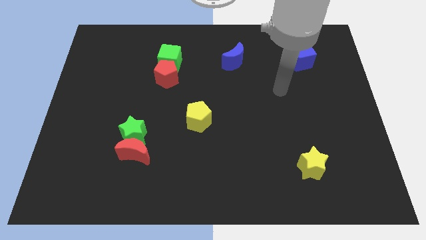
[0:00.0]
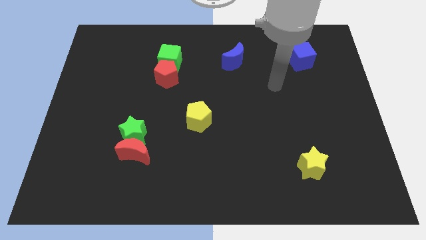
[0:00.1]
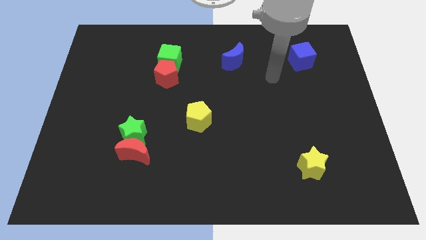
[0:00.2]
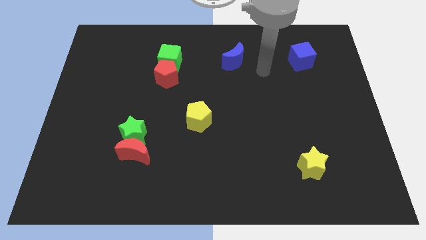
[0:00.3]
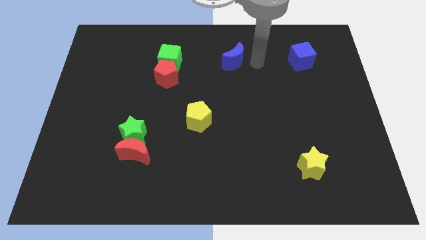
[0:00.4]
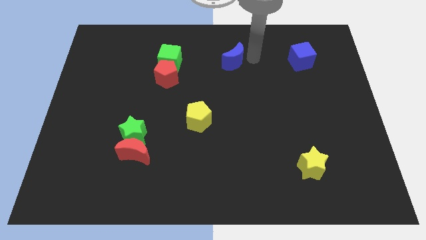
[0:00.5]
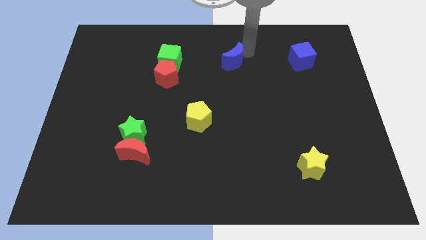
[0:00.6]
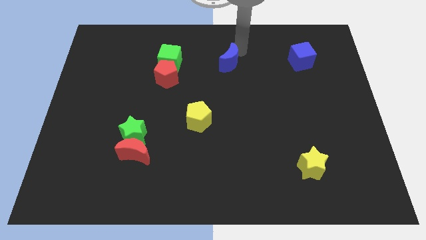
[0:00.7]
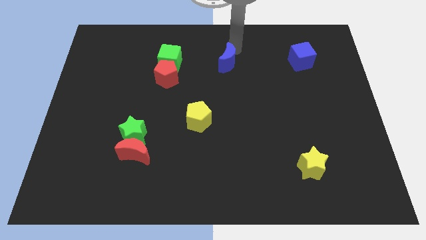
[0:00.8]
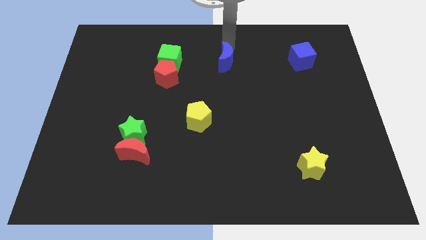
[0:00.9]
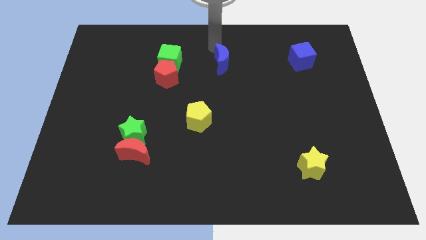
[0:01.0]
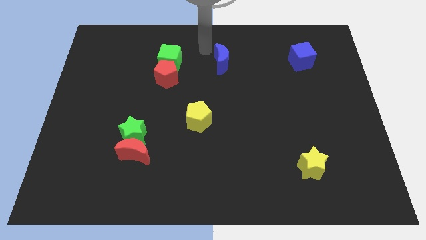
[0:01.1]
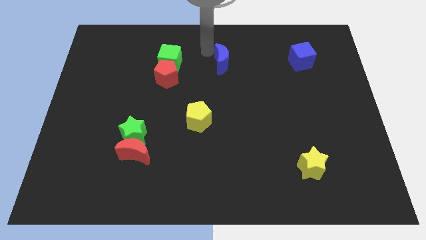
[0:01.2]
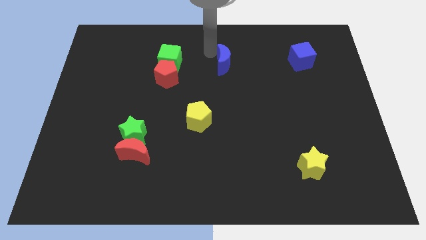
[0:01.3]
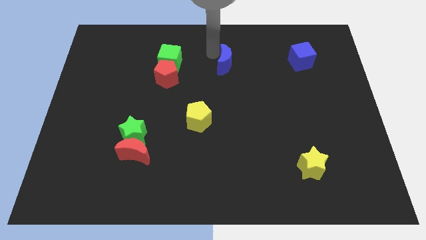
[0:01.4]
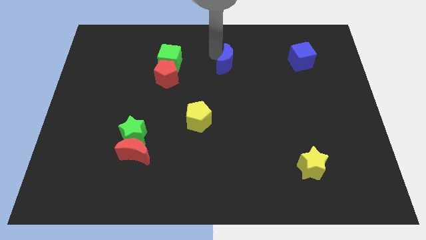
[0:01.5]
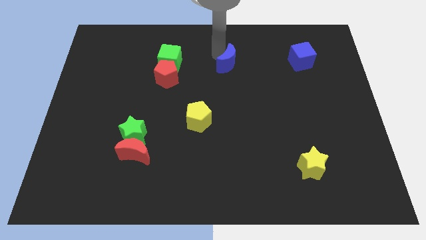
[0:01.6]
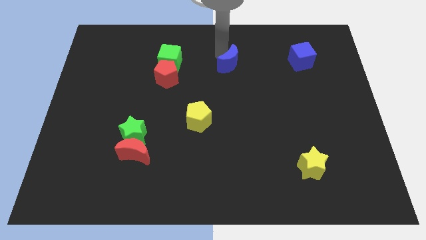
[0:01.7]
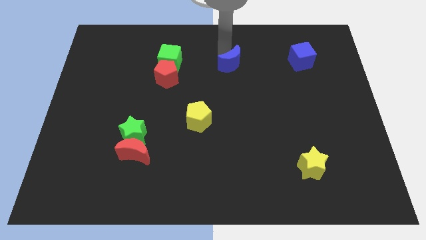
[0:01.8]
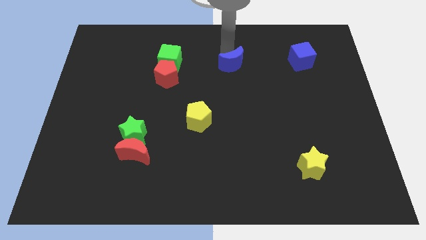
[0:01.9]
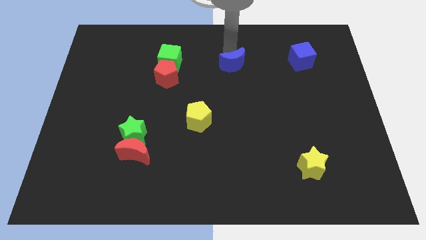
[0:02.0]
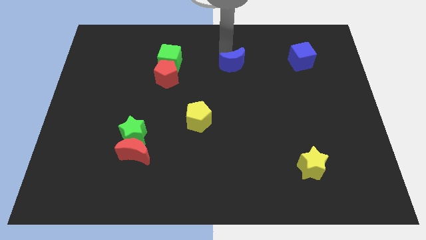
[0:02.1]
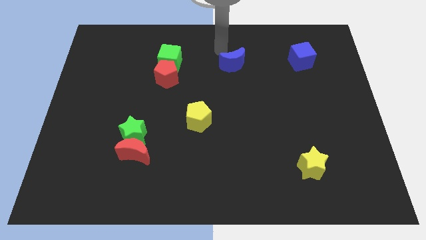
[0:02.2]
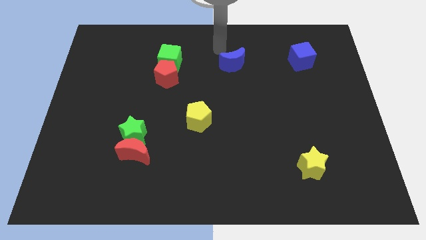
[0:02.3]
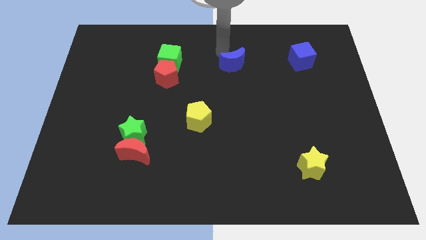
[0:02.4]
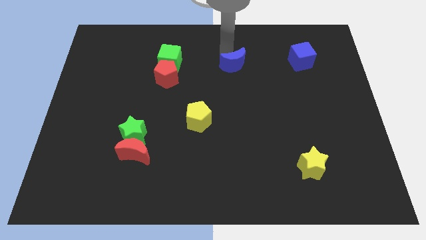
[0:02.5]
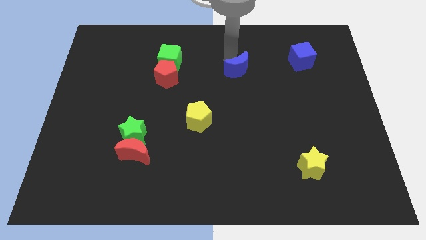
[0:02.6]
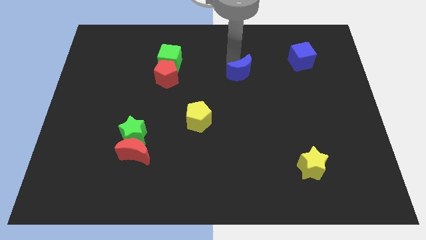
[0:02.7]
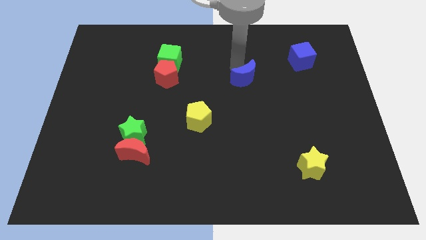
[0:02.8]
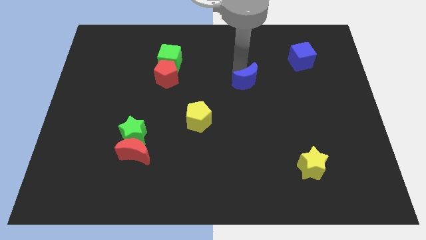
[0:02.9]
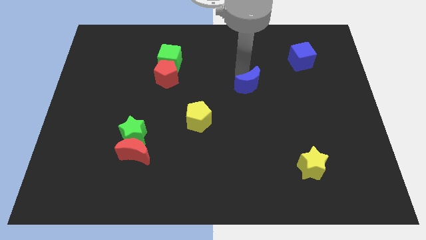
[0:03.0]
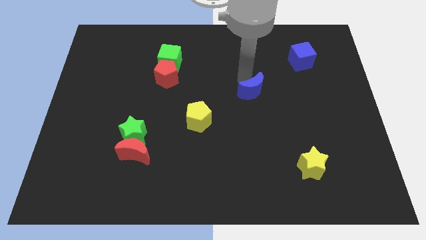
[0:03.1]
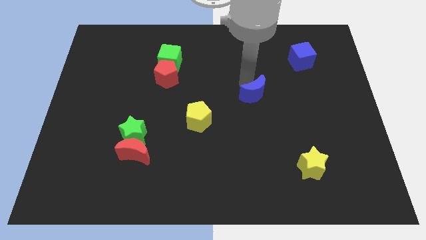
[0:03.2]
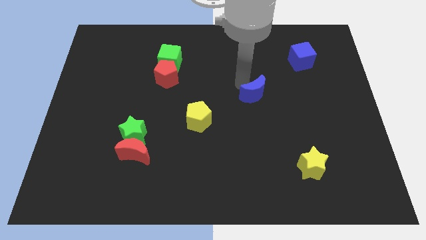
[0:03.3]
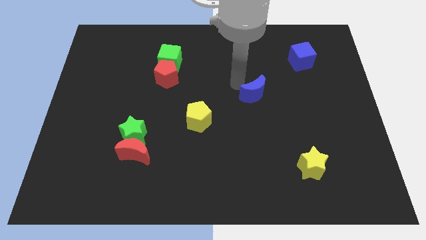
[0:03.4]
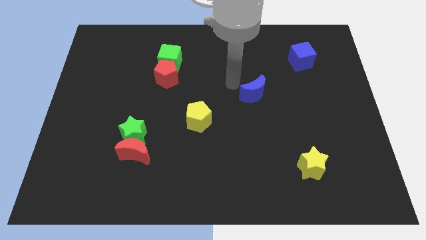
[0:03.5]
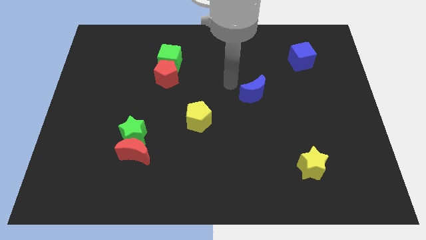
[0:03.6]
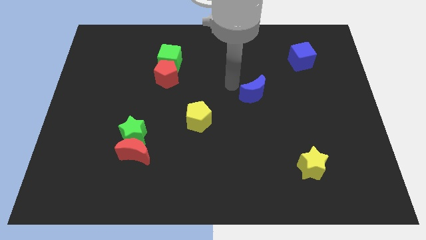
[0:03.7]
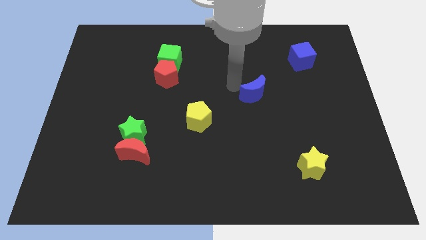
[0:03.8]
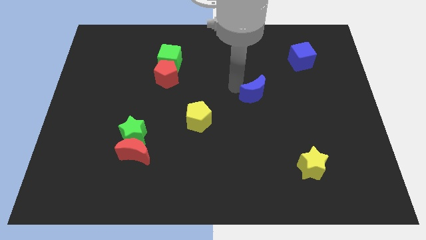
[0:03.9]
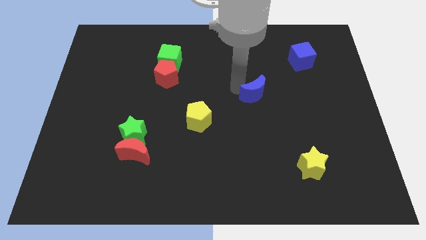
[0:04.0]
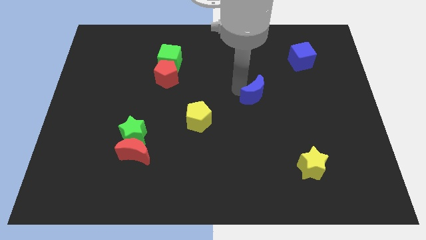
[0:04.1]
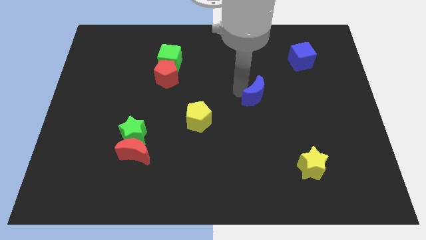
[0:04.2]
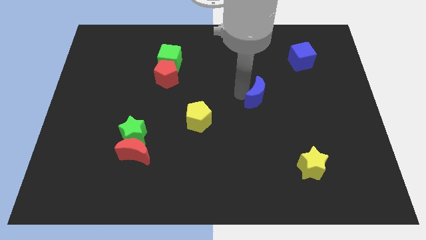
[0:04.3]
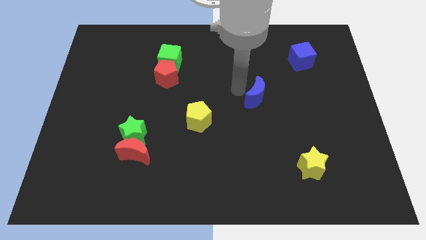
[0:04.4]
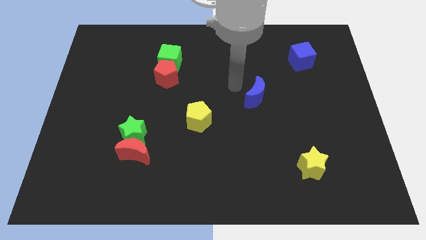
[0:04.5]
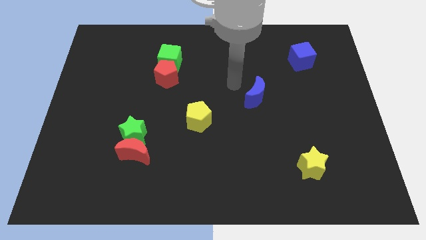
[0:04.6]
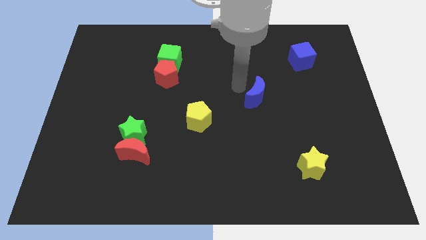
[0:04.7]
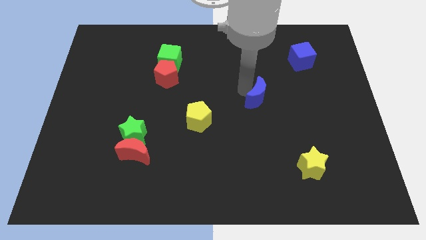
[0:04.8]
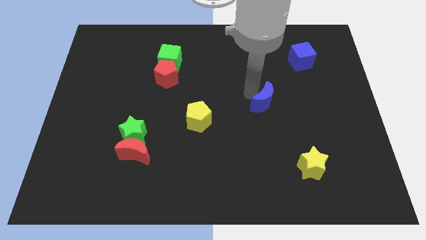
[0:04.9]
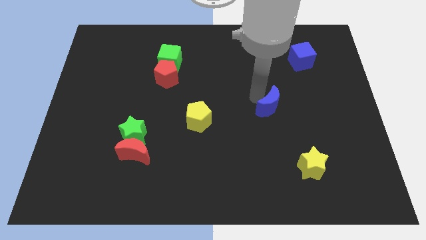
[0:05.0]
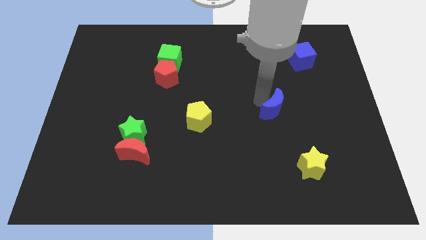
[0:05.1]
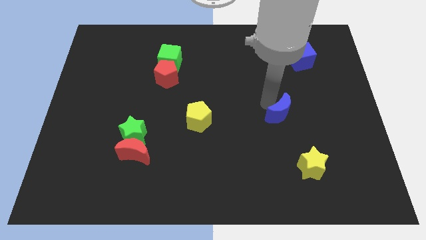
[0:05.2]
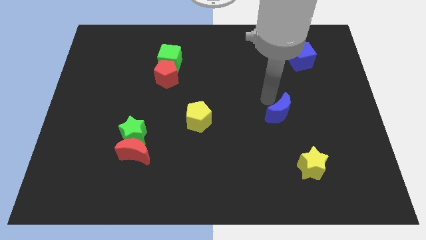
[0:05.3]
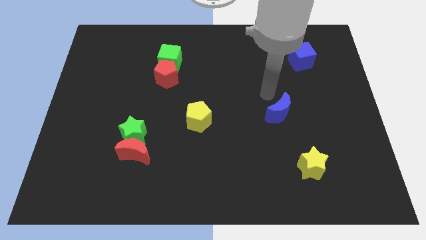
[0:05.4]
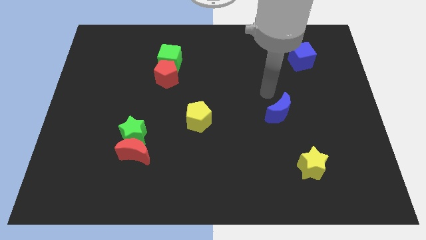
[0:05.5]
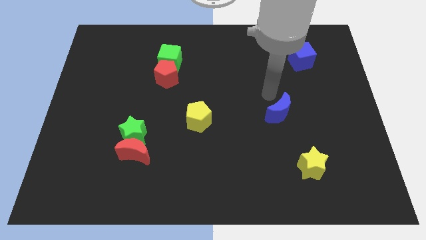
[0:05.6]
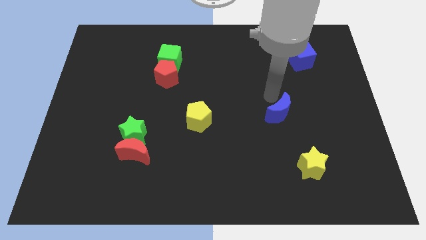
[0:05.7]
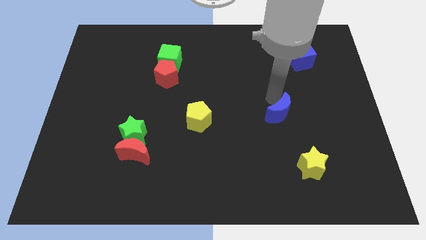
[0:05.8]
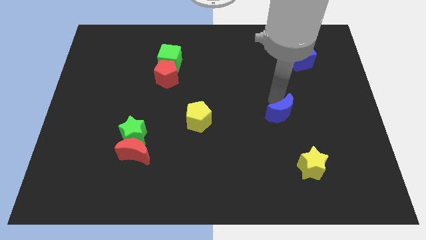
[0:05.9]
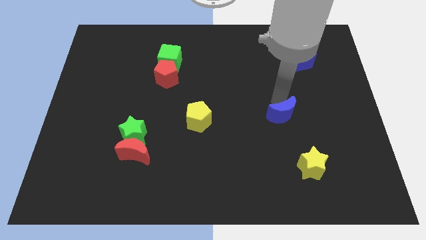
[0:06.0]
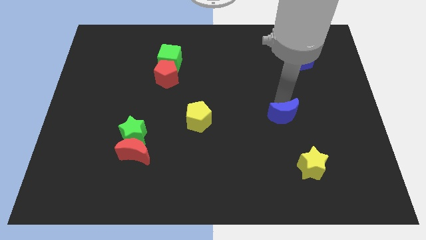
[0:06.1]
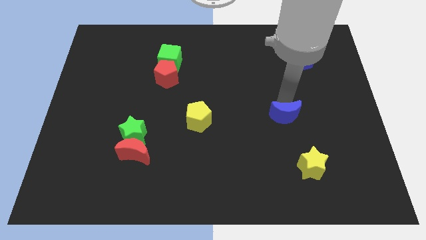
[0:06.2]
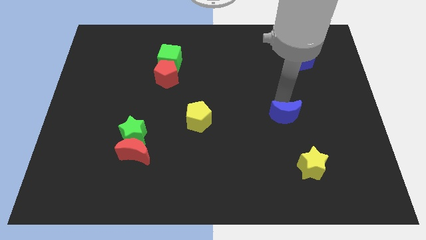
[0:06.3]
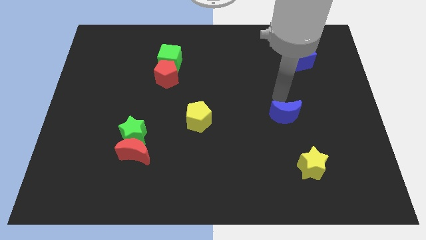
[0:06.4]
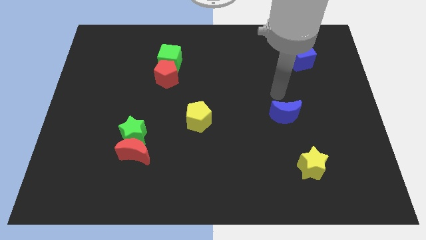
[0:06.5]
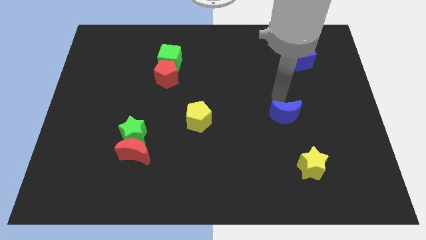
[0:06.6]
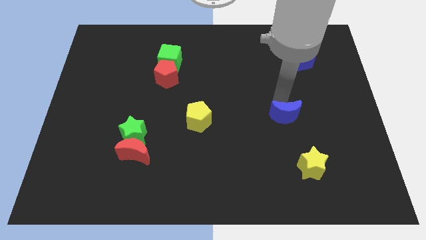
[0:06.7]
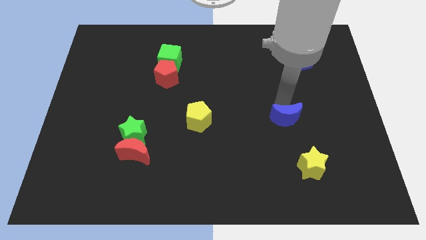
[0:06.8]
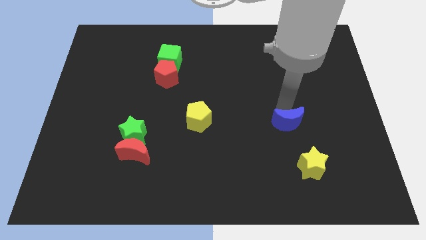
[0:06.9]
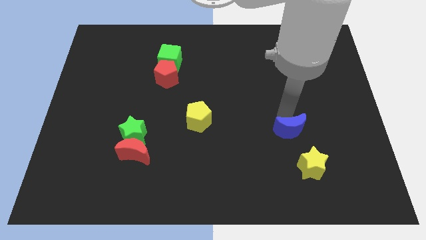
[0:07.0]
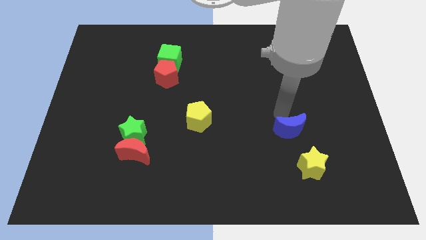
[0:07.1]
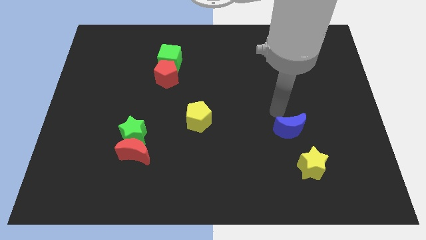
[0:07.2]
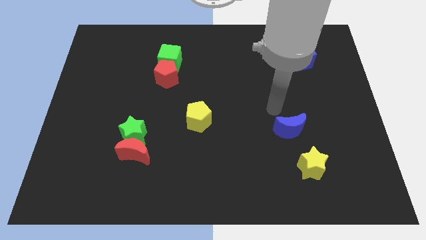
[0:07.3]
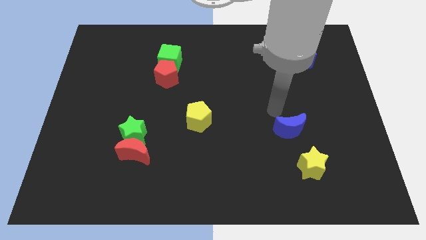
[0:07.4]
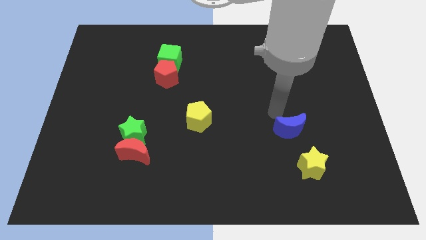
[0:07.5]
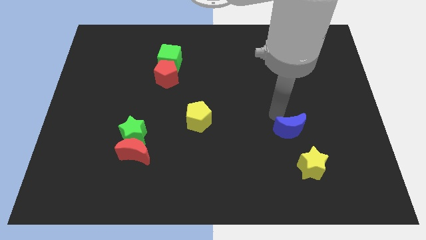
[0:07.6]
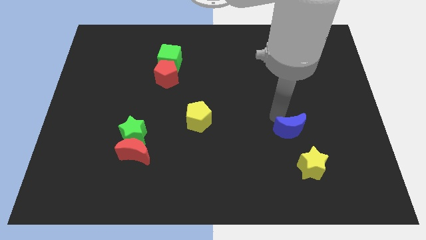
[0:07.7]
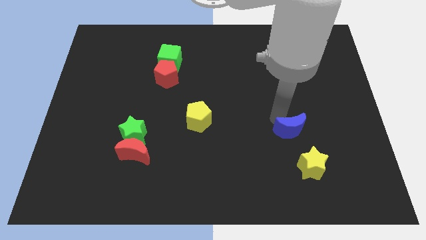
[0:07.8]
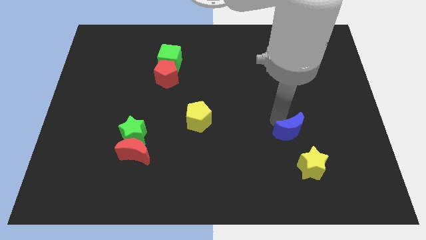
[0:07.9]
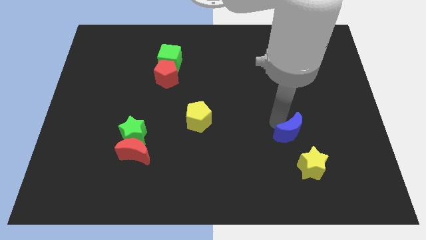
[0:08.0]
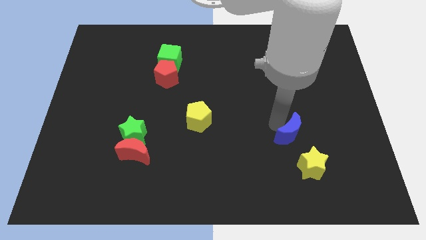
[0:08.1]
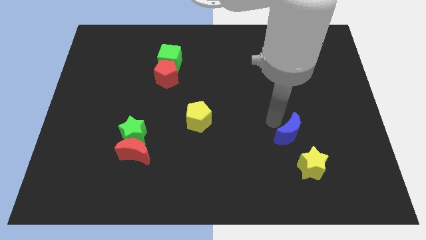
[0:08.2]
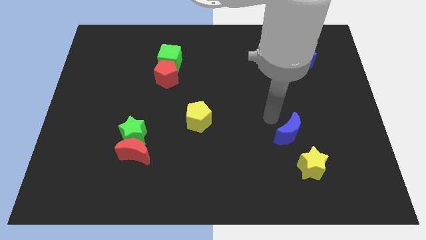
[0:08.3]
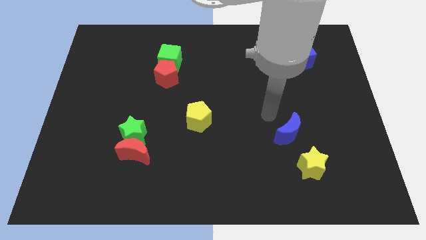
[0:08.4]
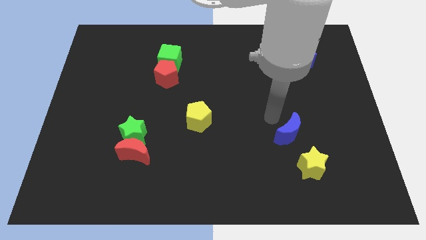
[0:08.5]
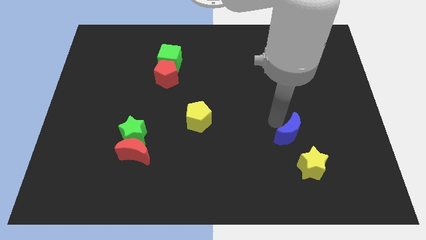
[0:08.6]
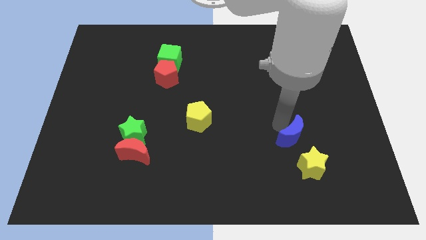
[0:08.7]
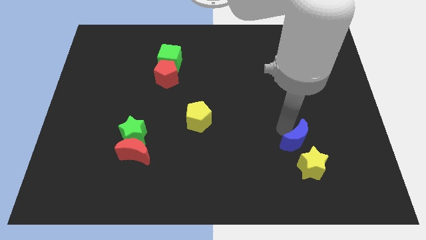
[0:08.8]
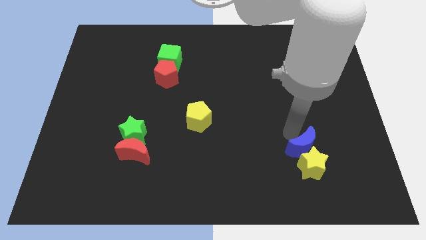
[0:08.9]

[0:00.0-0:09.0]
put the blue moon towards the yellow star
